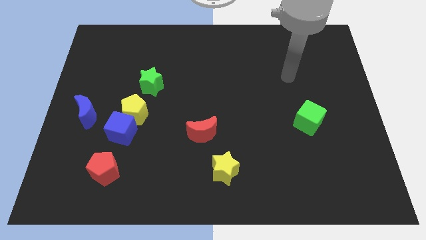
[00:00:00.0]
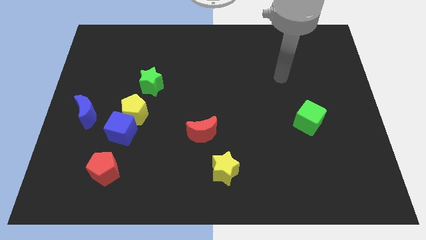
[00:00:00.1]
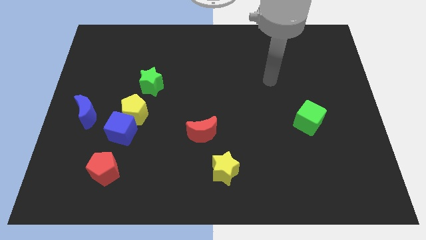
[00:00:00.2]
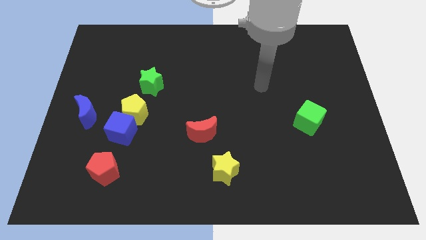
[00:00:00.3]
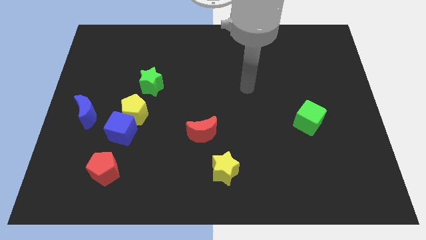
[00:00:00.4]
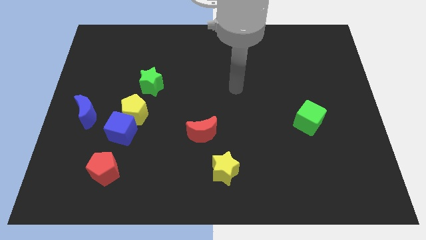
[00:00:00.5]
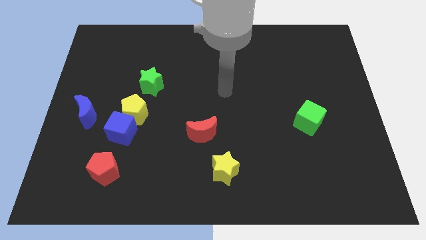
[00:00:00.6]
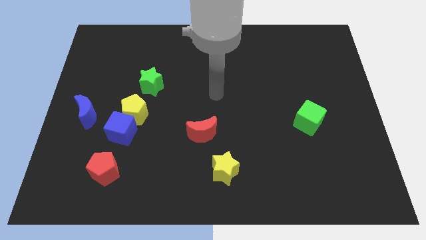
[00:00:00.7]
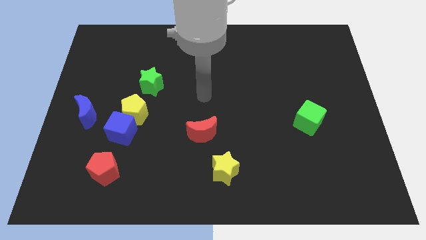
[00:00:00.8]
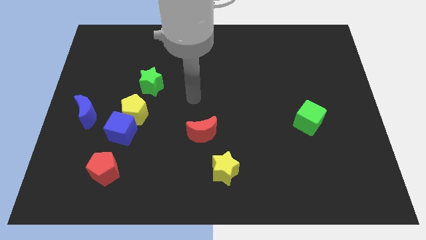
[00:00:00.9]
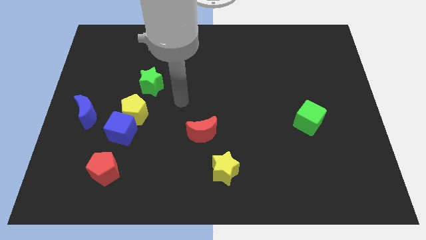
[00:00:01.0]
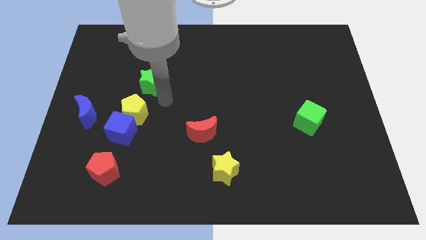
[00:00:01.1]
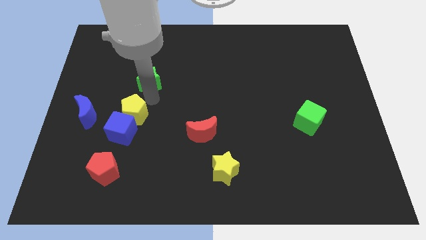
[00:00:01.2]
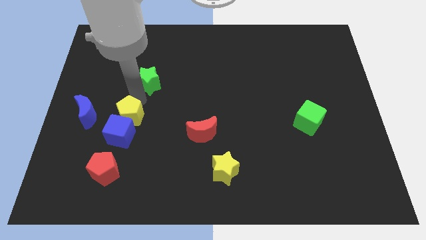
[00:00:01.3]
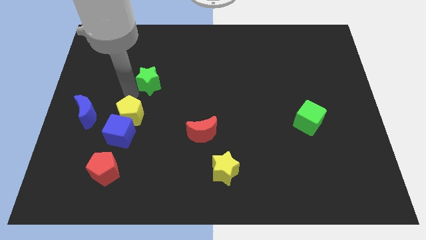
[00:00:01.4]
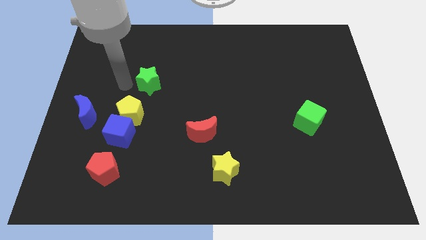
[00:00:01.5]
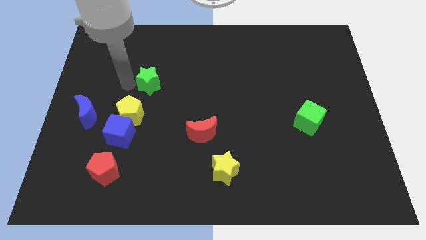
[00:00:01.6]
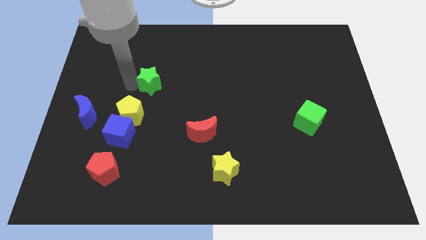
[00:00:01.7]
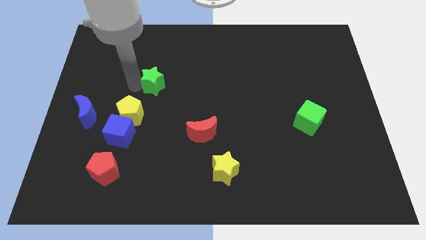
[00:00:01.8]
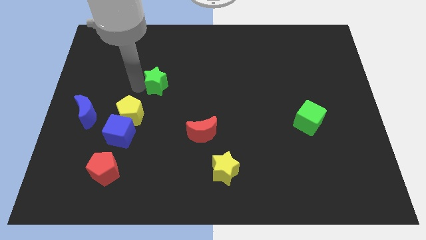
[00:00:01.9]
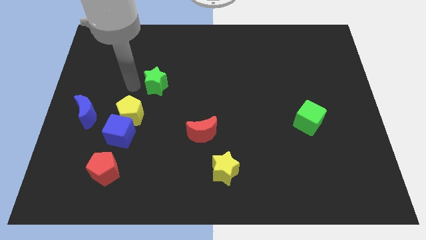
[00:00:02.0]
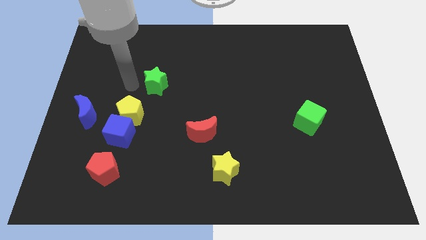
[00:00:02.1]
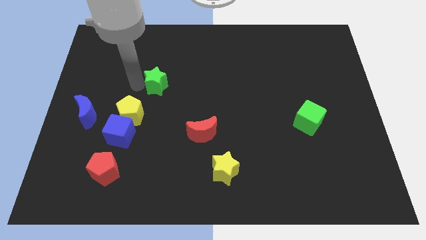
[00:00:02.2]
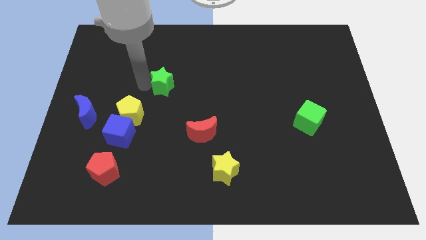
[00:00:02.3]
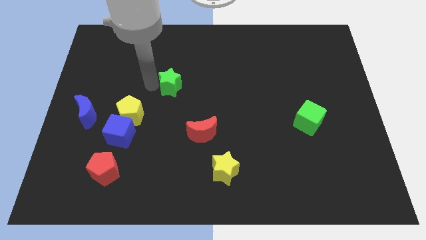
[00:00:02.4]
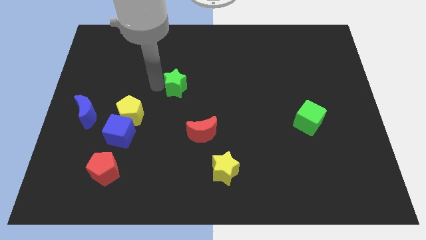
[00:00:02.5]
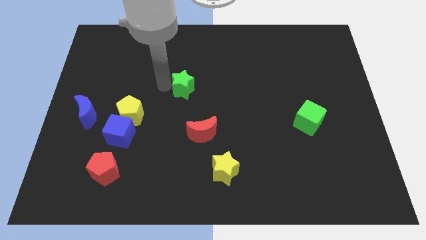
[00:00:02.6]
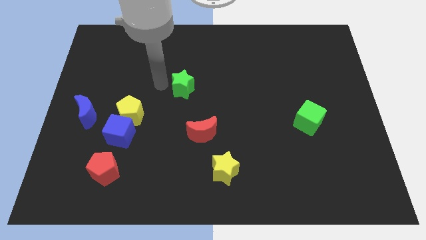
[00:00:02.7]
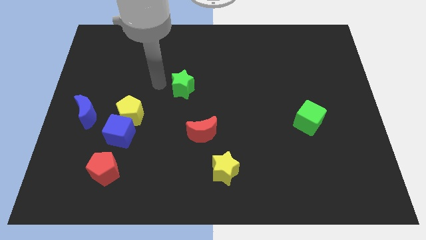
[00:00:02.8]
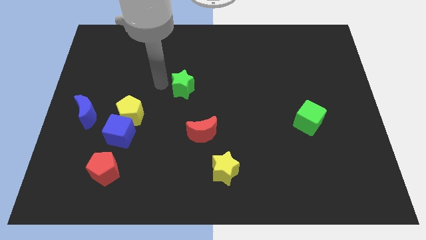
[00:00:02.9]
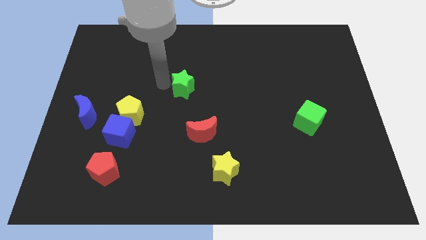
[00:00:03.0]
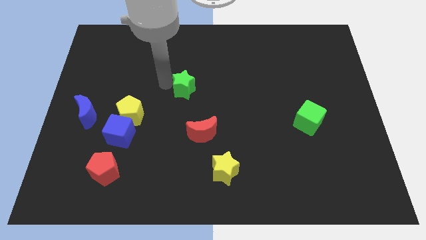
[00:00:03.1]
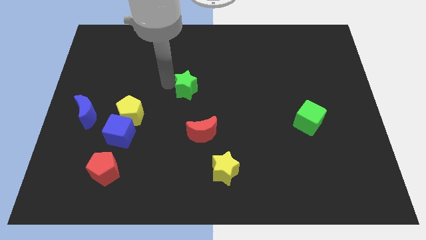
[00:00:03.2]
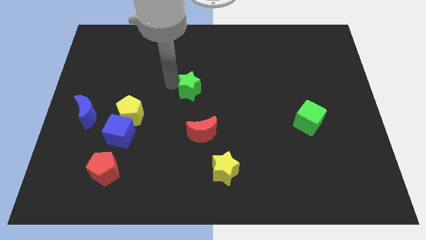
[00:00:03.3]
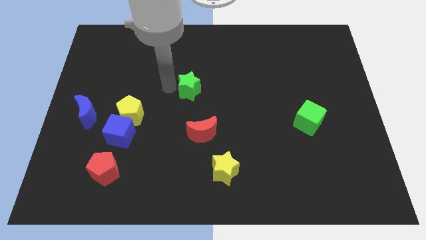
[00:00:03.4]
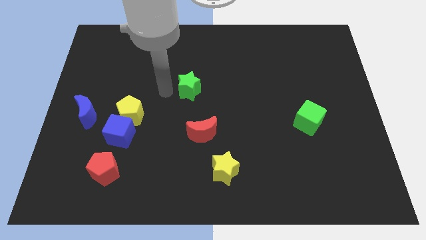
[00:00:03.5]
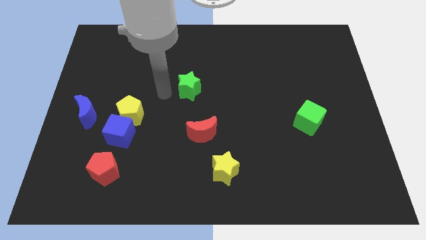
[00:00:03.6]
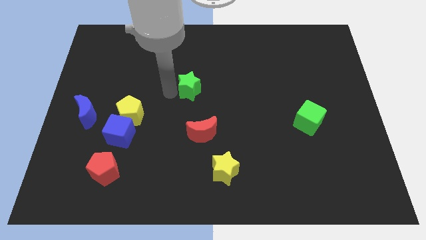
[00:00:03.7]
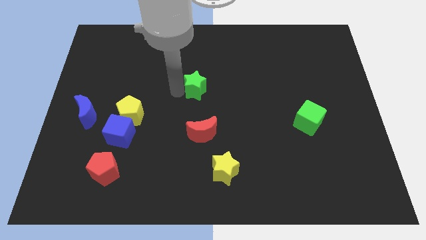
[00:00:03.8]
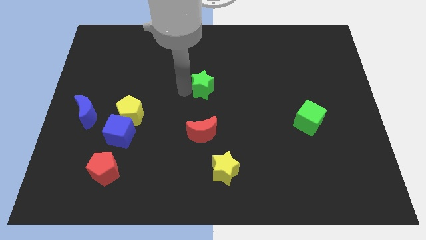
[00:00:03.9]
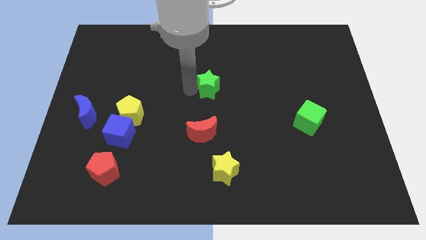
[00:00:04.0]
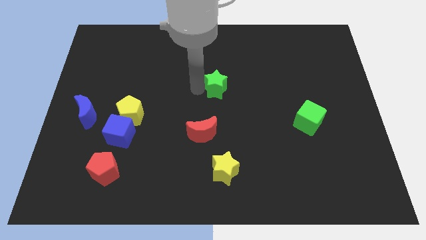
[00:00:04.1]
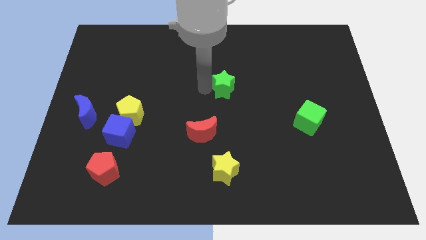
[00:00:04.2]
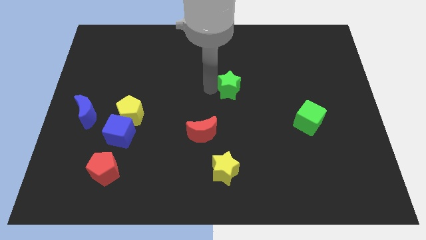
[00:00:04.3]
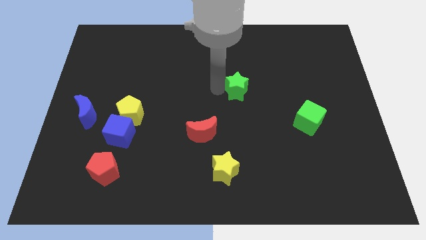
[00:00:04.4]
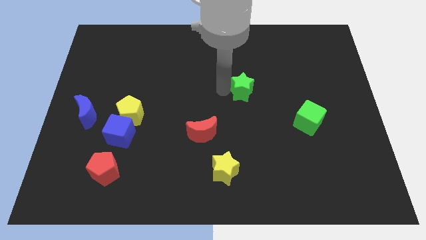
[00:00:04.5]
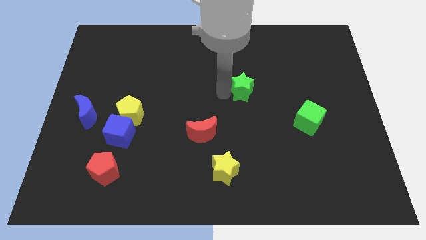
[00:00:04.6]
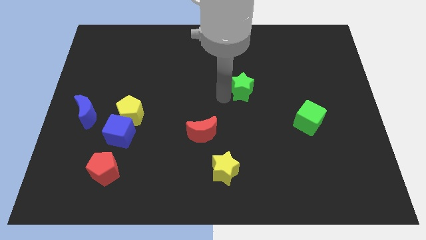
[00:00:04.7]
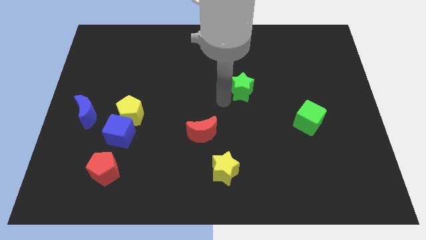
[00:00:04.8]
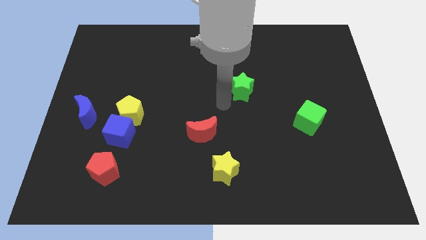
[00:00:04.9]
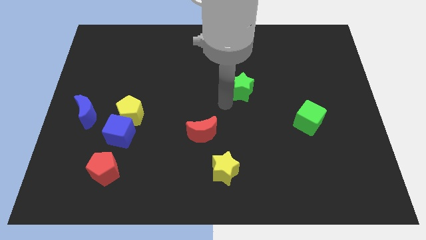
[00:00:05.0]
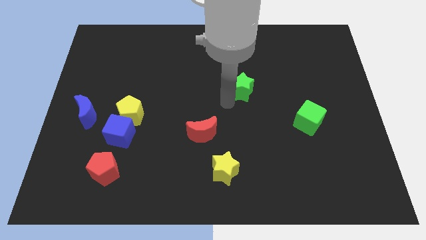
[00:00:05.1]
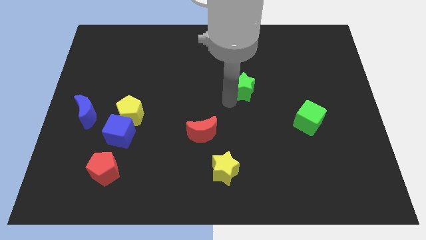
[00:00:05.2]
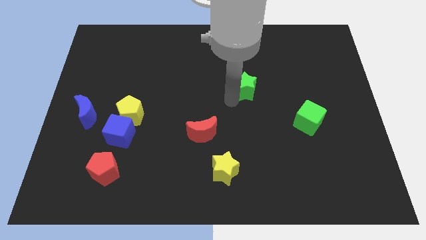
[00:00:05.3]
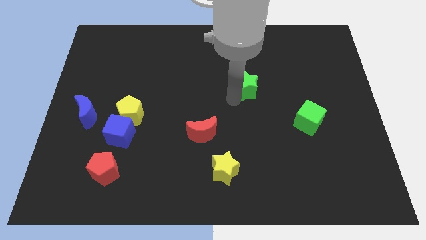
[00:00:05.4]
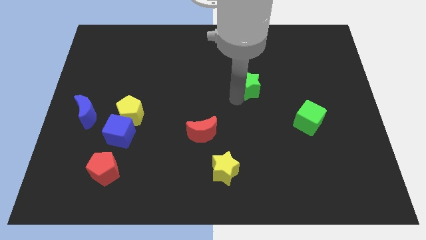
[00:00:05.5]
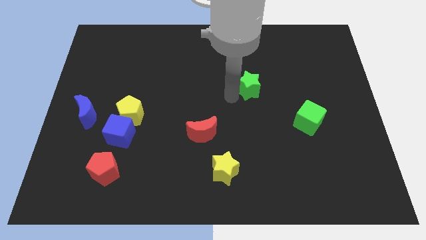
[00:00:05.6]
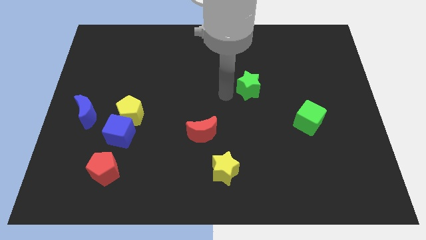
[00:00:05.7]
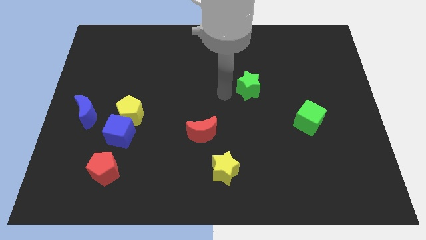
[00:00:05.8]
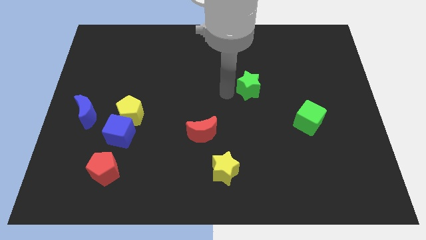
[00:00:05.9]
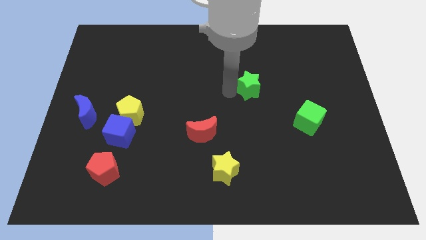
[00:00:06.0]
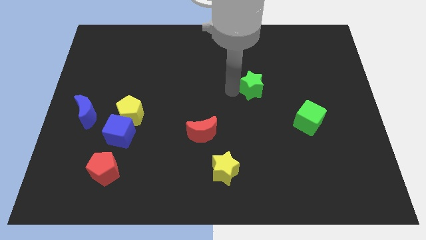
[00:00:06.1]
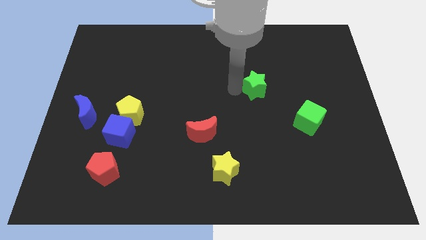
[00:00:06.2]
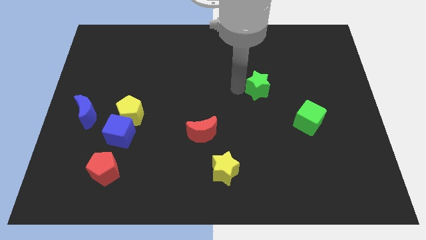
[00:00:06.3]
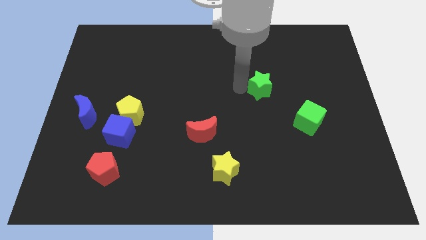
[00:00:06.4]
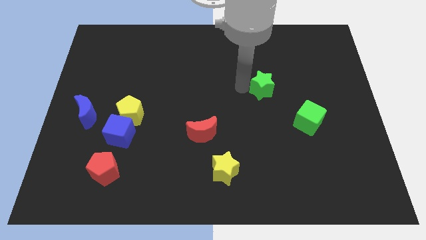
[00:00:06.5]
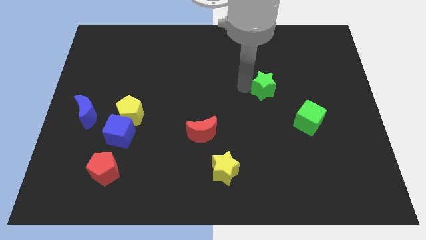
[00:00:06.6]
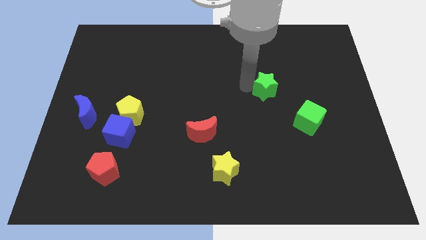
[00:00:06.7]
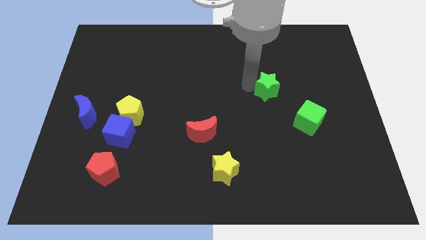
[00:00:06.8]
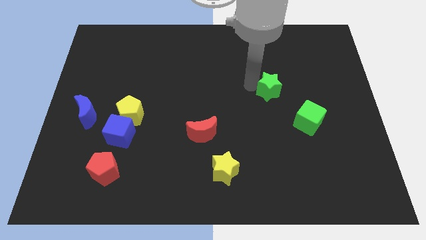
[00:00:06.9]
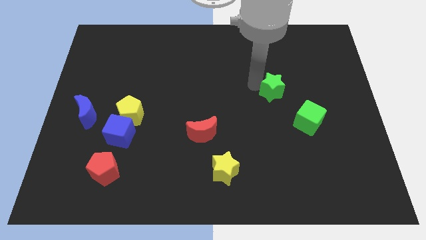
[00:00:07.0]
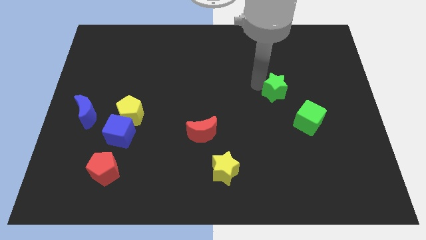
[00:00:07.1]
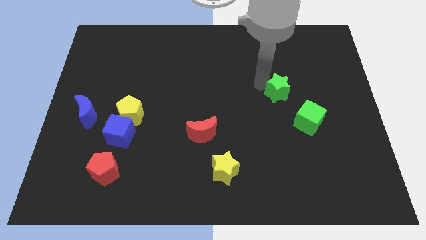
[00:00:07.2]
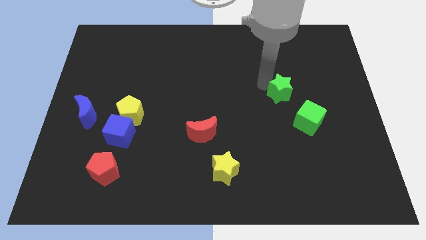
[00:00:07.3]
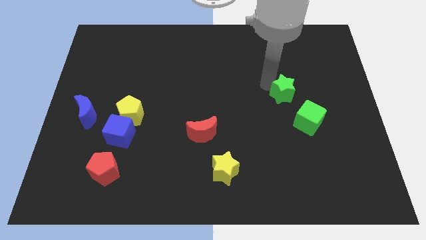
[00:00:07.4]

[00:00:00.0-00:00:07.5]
slide the green star to the top of the green cube

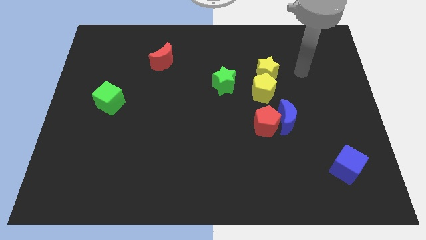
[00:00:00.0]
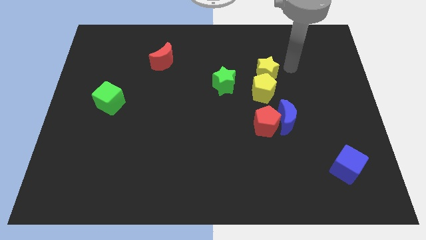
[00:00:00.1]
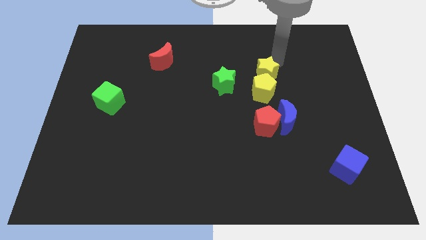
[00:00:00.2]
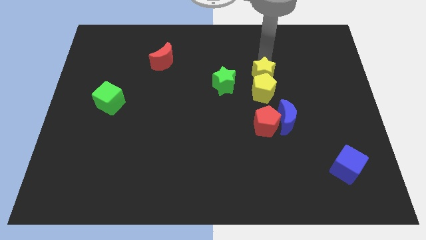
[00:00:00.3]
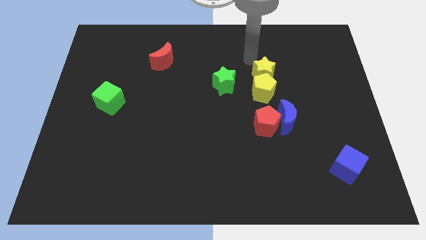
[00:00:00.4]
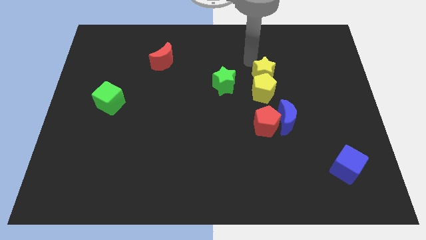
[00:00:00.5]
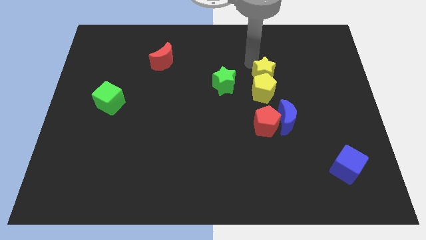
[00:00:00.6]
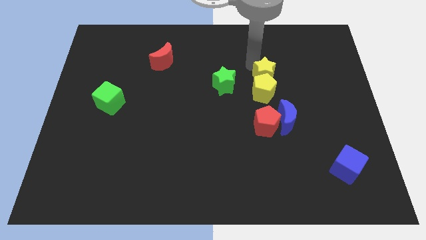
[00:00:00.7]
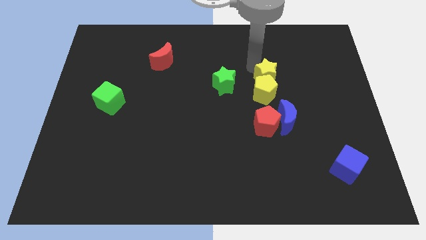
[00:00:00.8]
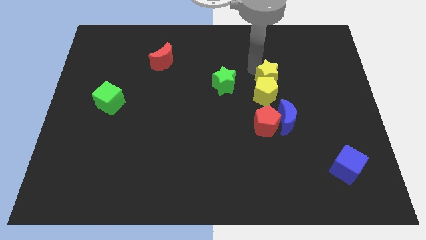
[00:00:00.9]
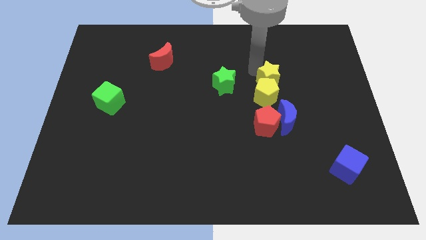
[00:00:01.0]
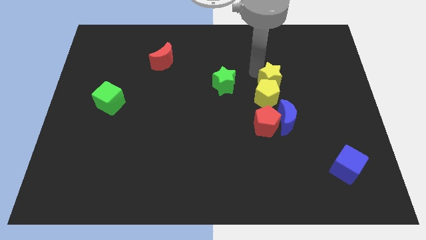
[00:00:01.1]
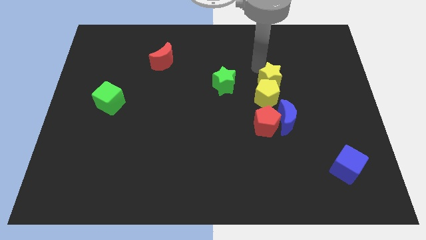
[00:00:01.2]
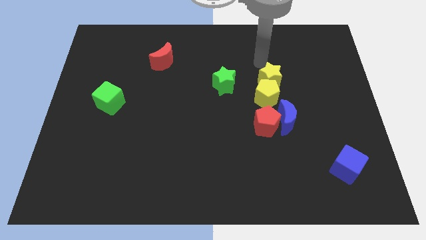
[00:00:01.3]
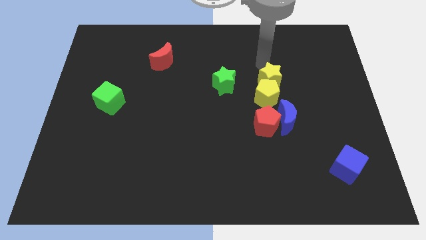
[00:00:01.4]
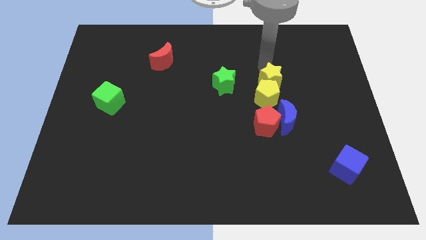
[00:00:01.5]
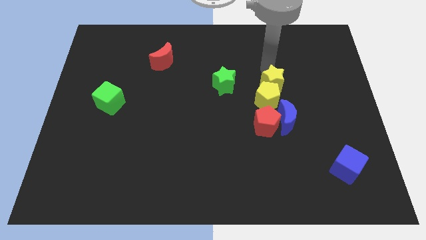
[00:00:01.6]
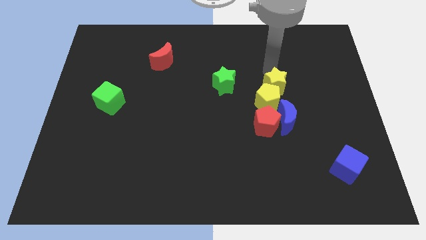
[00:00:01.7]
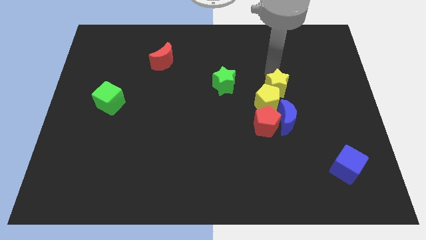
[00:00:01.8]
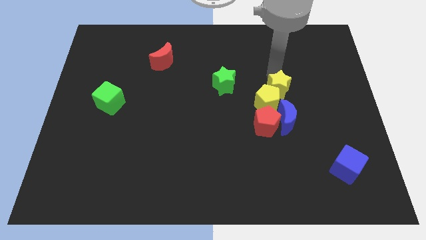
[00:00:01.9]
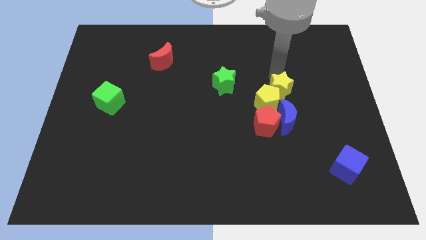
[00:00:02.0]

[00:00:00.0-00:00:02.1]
slide the yellow star to the top right of the red pentagon
